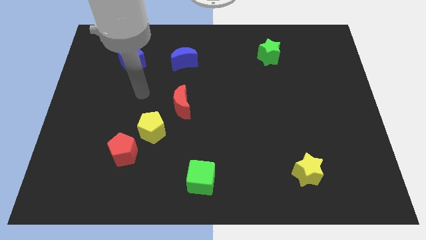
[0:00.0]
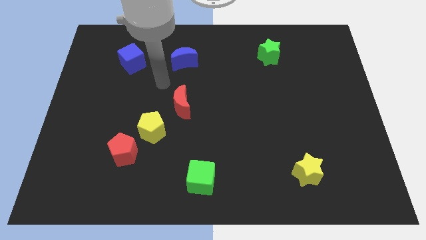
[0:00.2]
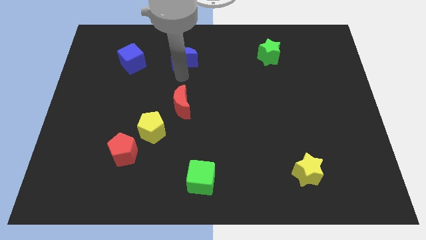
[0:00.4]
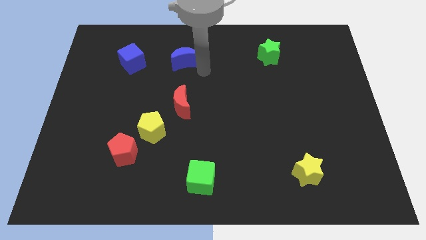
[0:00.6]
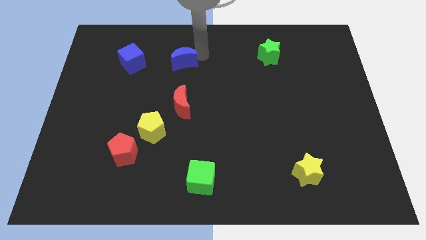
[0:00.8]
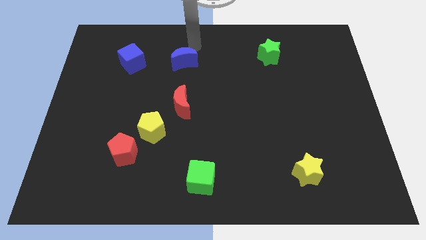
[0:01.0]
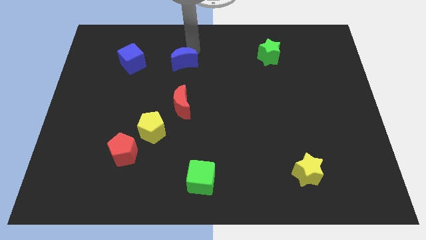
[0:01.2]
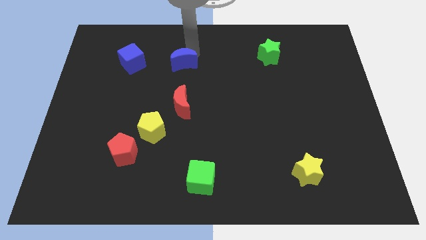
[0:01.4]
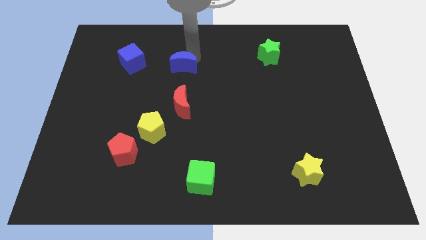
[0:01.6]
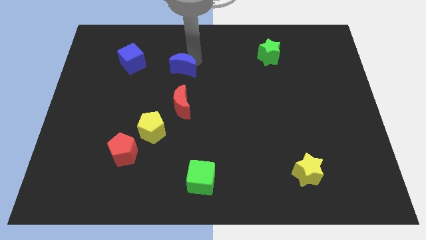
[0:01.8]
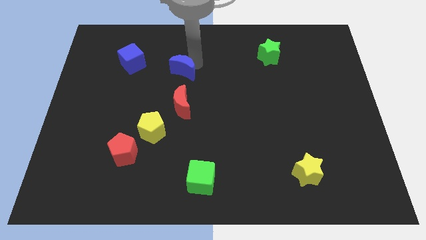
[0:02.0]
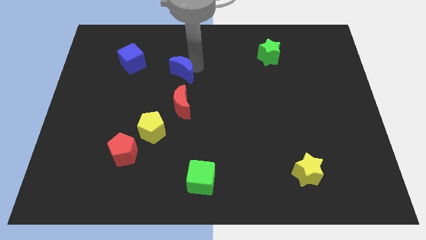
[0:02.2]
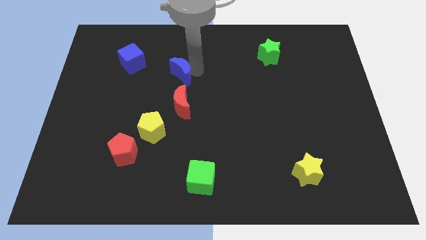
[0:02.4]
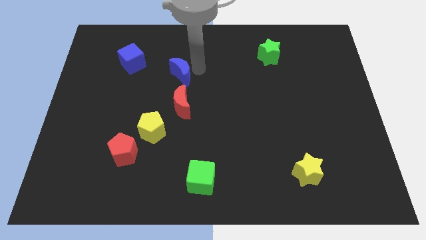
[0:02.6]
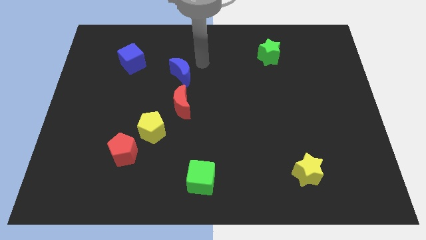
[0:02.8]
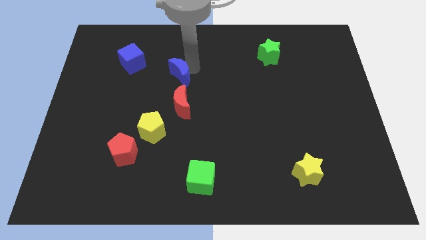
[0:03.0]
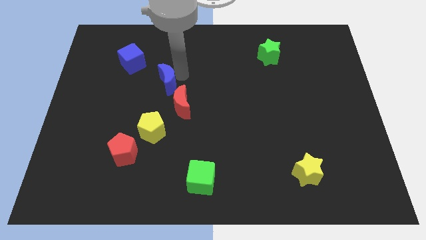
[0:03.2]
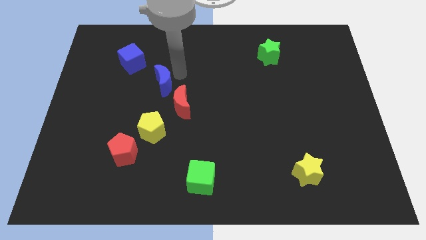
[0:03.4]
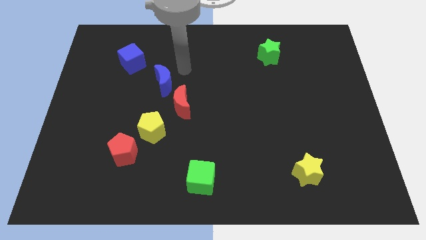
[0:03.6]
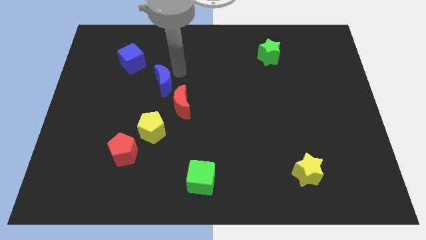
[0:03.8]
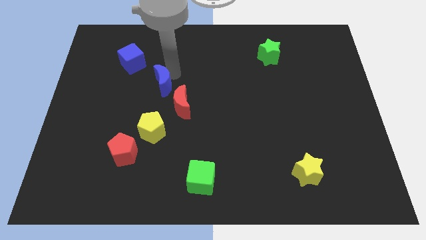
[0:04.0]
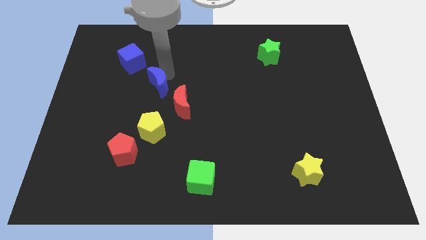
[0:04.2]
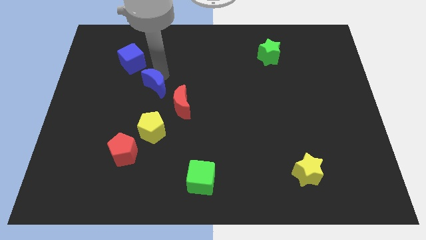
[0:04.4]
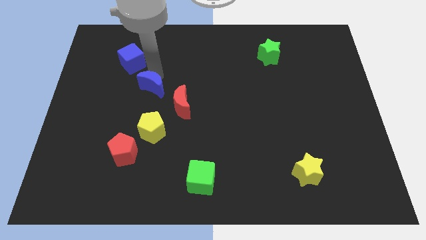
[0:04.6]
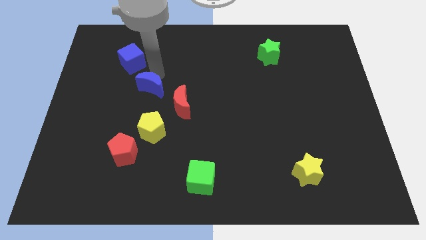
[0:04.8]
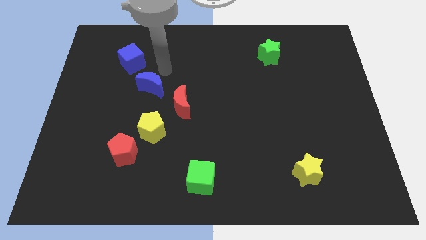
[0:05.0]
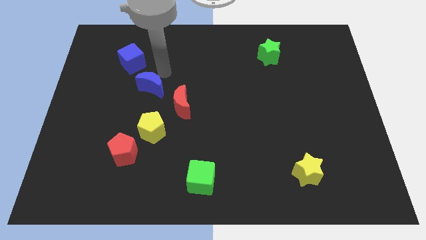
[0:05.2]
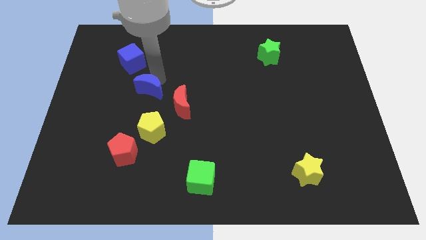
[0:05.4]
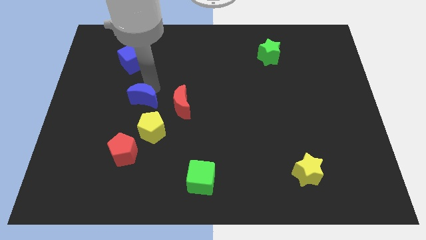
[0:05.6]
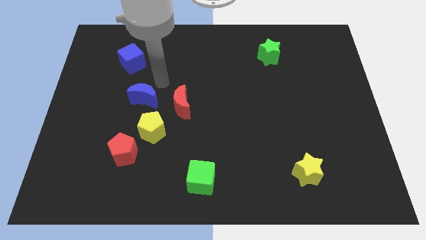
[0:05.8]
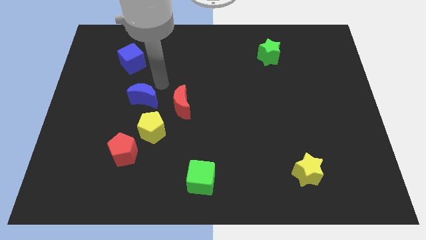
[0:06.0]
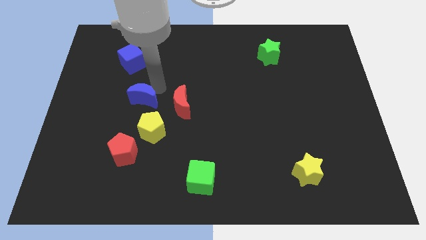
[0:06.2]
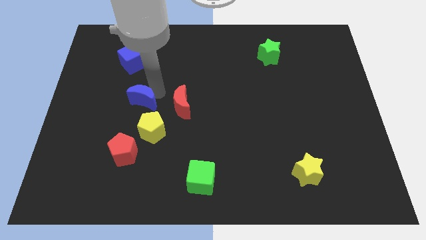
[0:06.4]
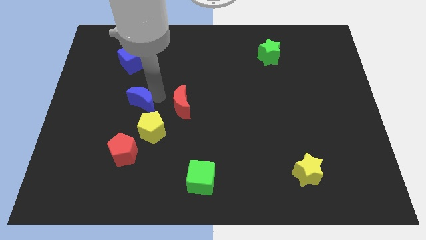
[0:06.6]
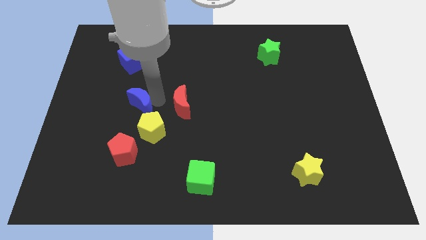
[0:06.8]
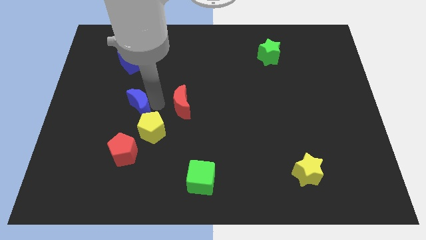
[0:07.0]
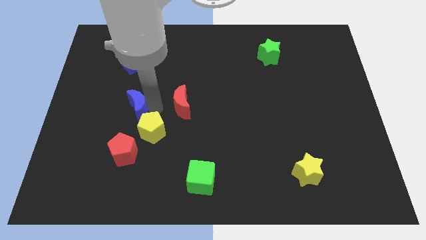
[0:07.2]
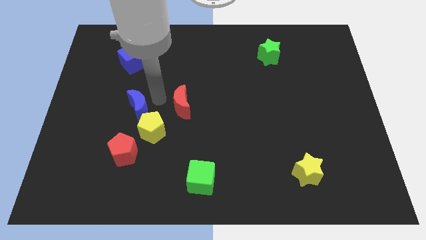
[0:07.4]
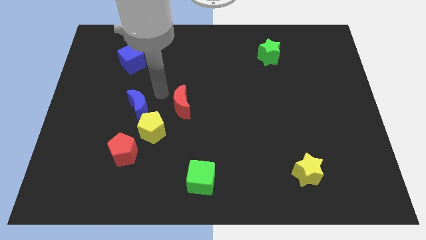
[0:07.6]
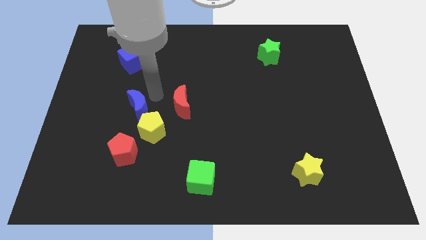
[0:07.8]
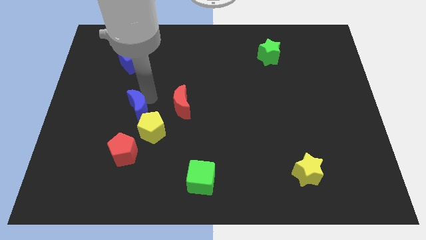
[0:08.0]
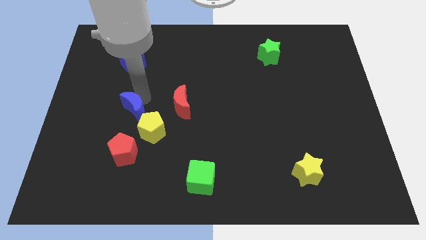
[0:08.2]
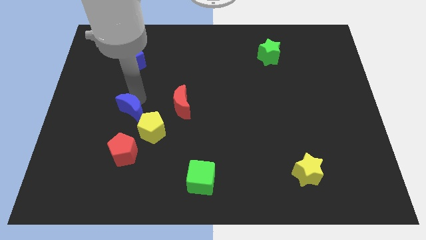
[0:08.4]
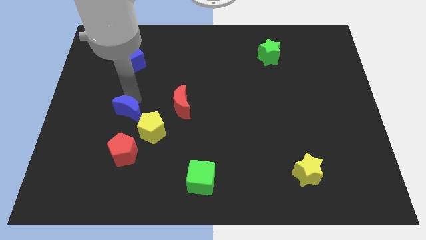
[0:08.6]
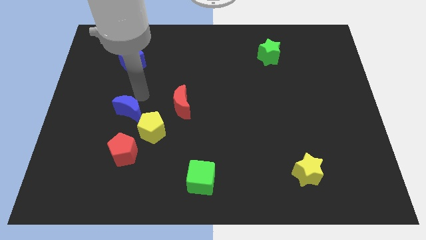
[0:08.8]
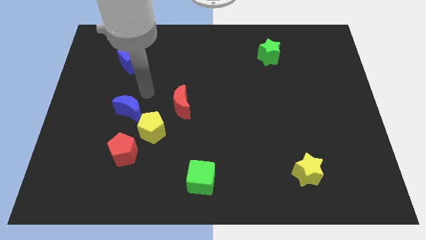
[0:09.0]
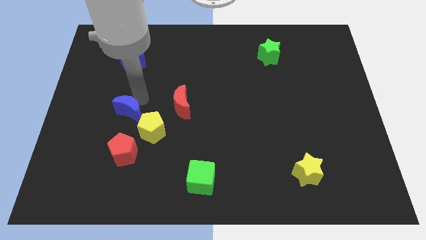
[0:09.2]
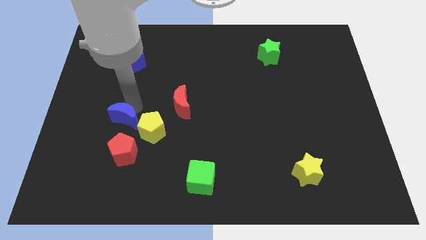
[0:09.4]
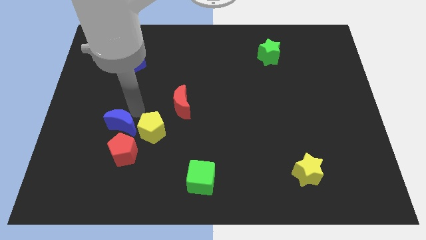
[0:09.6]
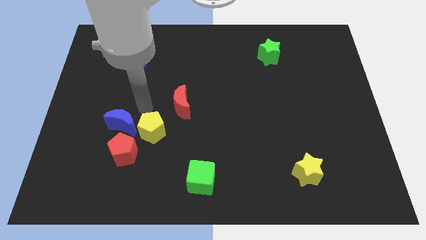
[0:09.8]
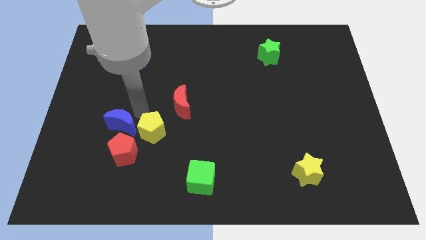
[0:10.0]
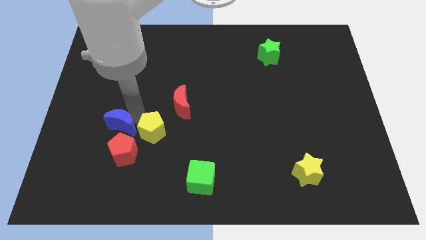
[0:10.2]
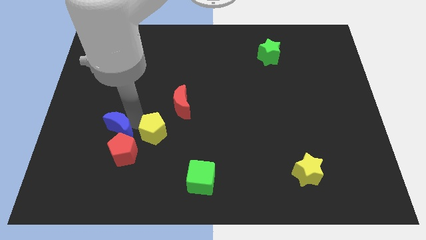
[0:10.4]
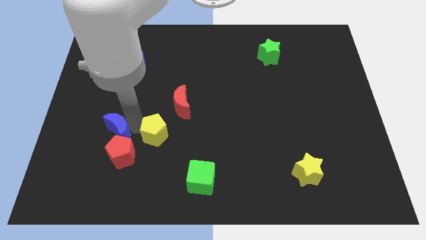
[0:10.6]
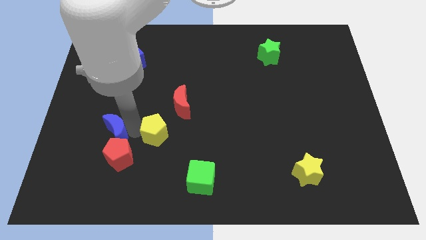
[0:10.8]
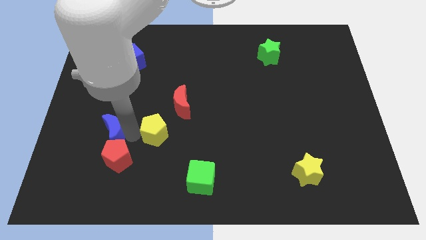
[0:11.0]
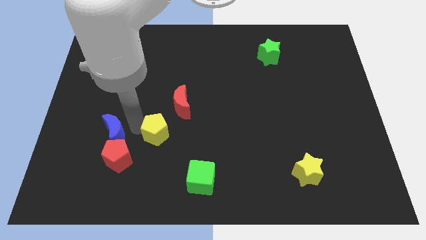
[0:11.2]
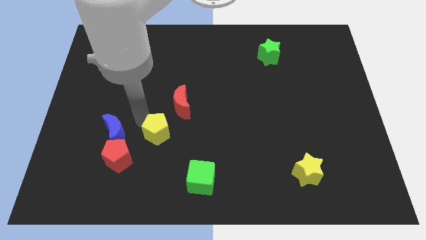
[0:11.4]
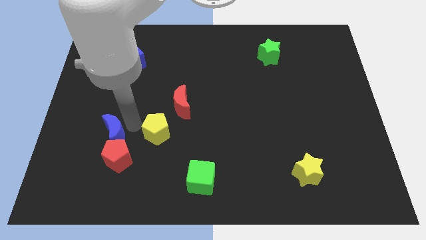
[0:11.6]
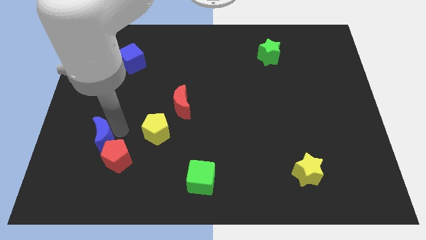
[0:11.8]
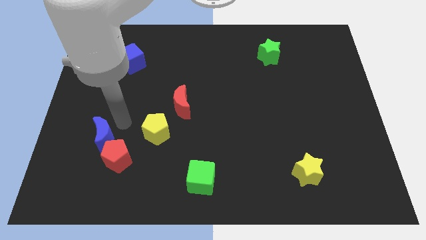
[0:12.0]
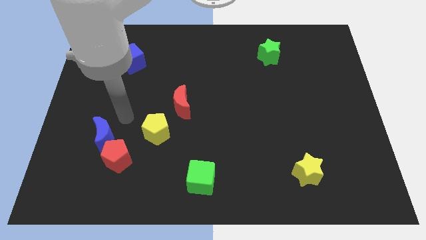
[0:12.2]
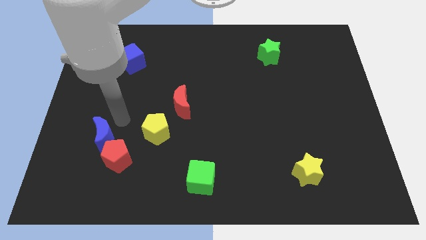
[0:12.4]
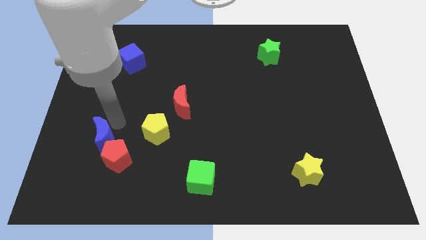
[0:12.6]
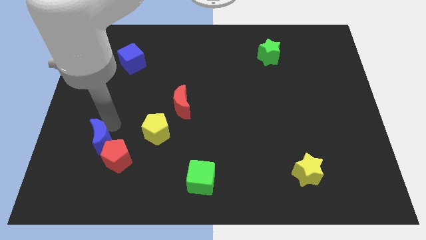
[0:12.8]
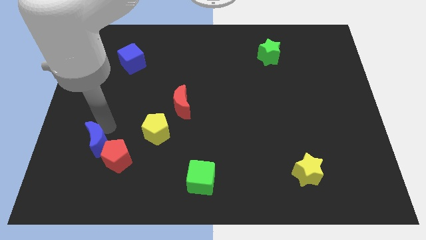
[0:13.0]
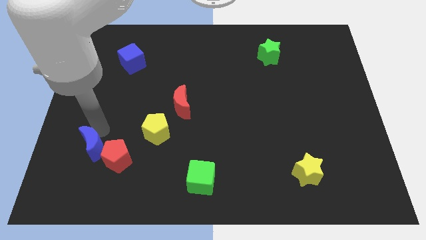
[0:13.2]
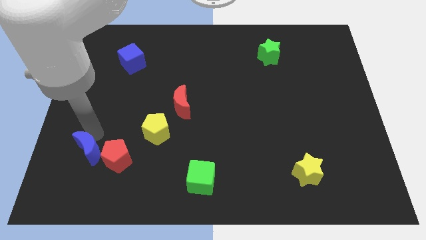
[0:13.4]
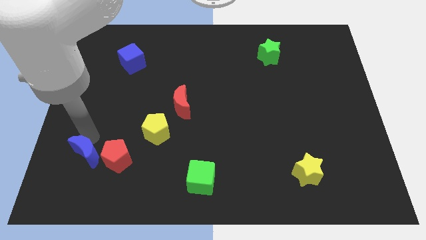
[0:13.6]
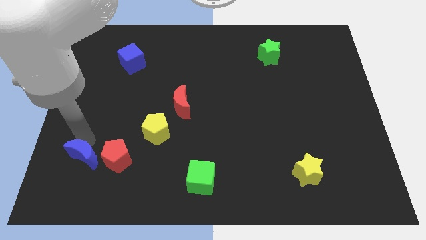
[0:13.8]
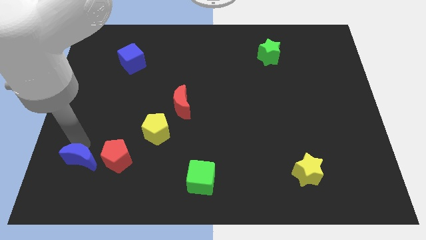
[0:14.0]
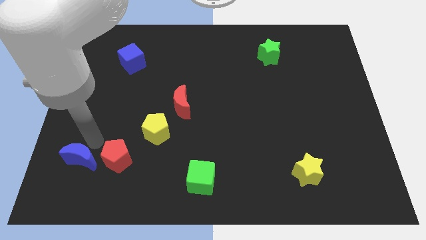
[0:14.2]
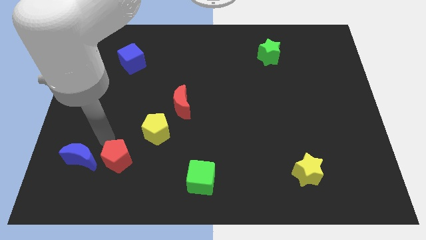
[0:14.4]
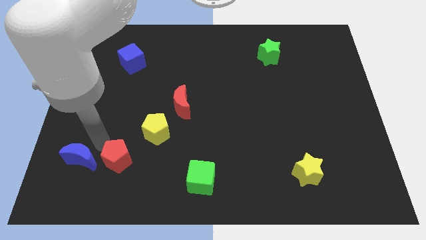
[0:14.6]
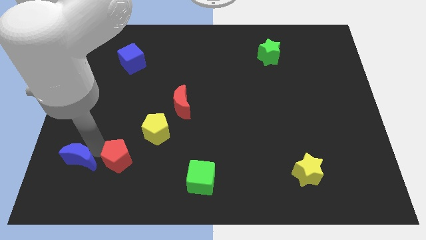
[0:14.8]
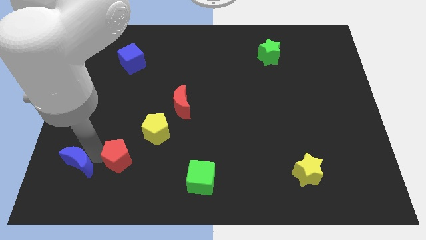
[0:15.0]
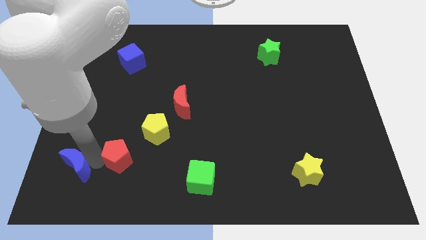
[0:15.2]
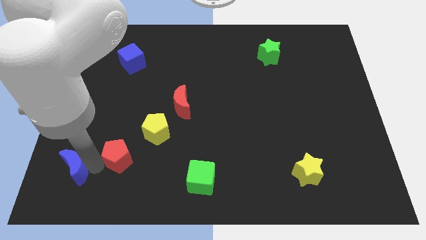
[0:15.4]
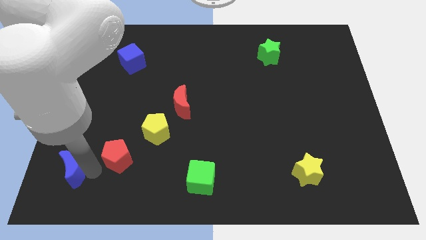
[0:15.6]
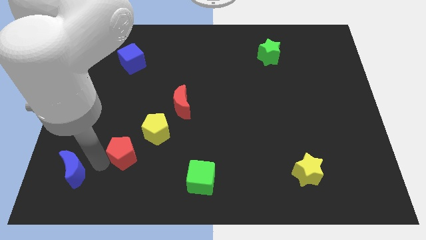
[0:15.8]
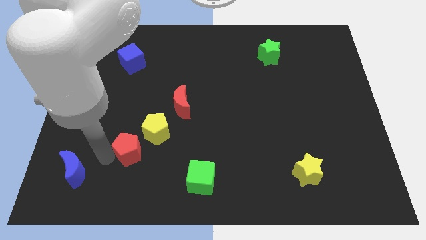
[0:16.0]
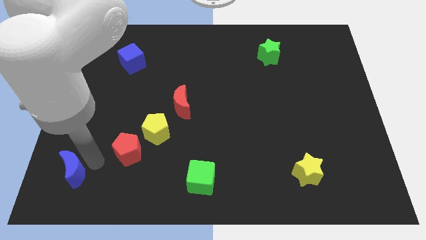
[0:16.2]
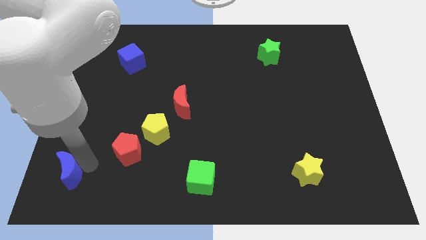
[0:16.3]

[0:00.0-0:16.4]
slide the blue moon to the lower left corner
